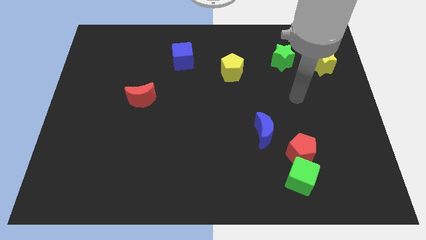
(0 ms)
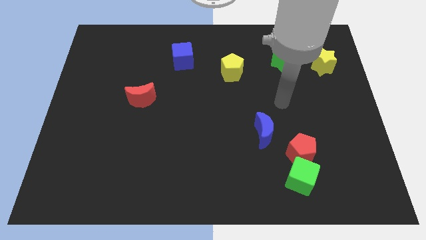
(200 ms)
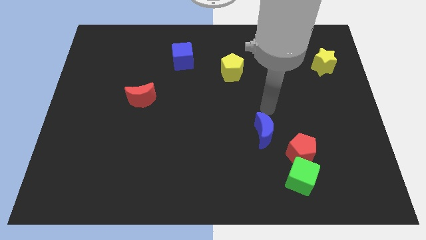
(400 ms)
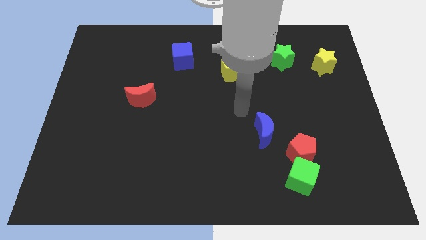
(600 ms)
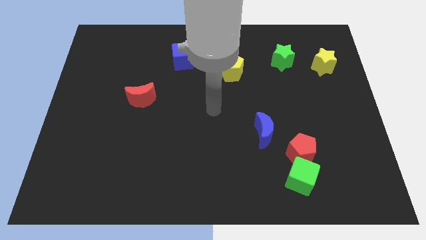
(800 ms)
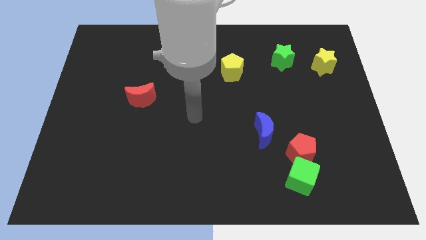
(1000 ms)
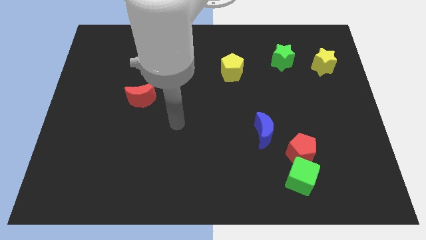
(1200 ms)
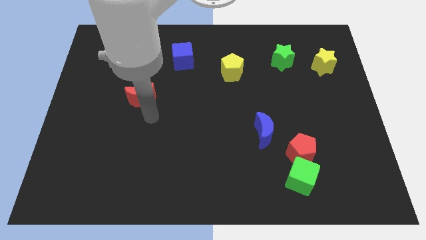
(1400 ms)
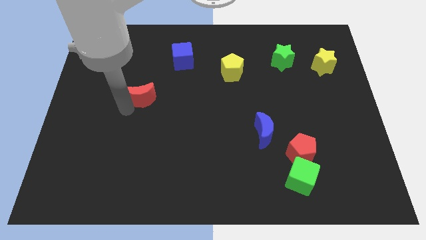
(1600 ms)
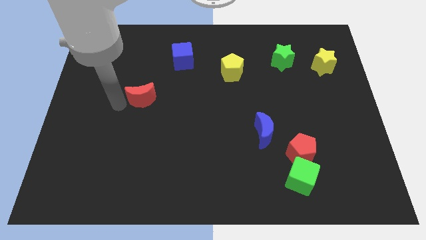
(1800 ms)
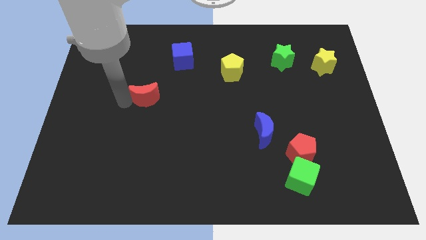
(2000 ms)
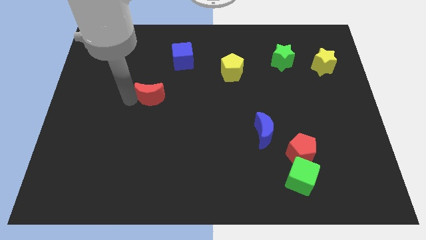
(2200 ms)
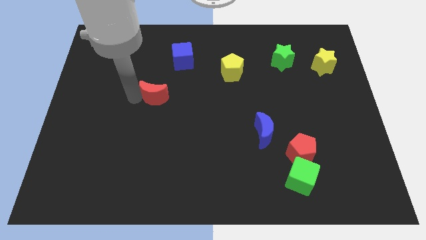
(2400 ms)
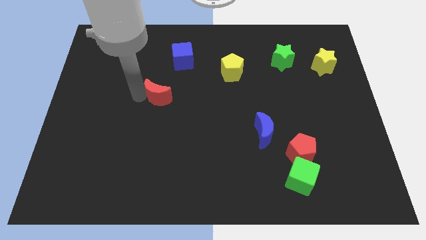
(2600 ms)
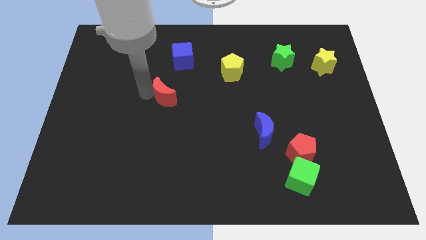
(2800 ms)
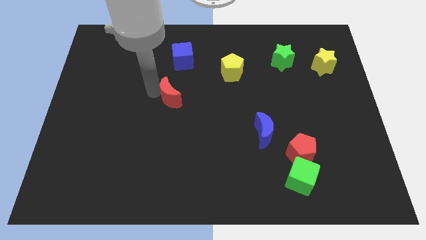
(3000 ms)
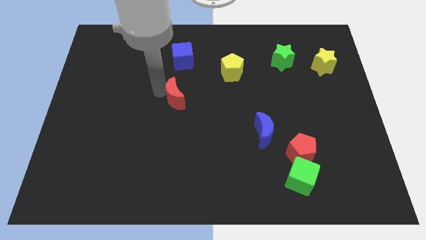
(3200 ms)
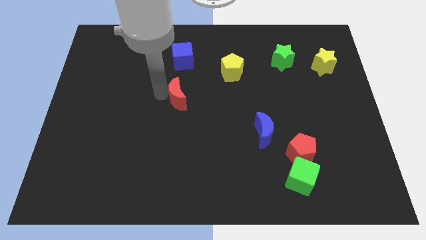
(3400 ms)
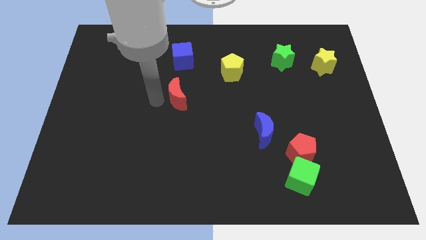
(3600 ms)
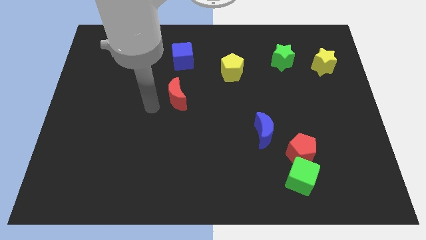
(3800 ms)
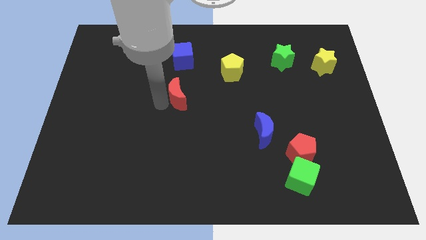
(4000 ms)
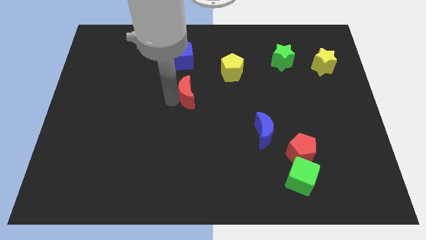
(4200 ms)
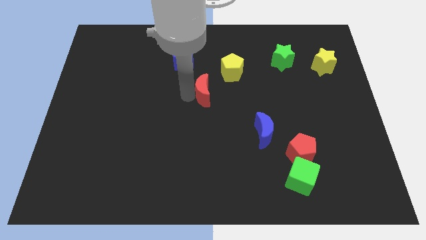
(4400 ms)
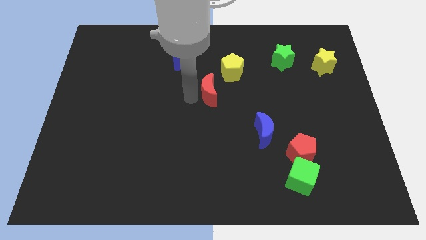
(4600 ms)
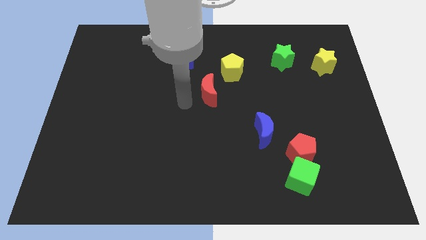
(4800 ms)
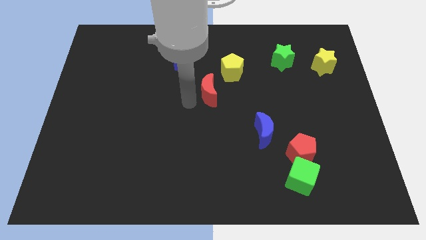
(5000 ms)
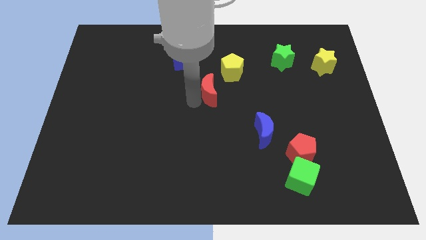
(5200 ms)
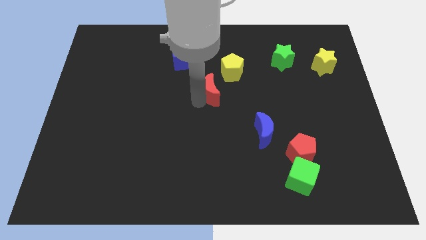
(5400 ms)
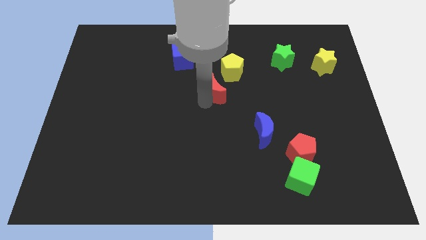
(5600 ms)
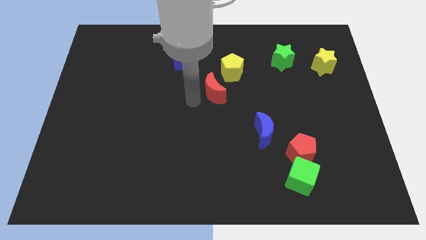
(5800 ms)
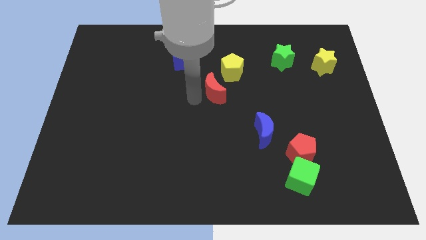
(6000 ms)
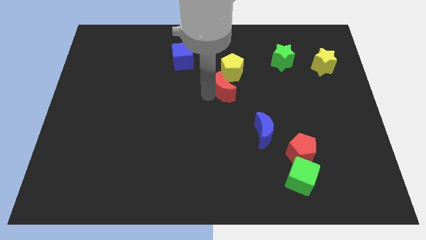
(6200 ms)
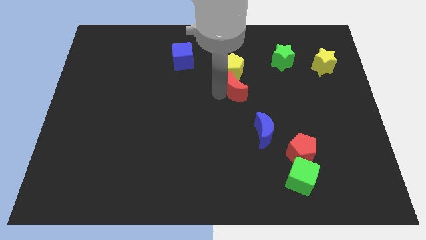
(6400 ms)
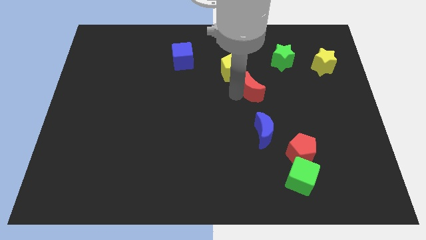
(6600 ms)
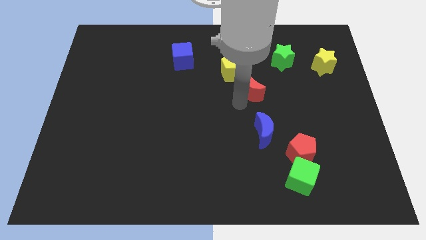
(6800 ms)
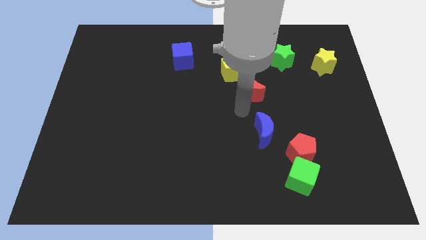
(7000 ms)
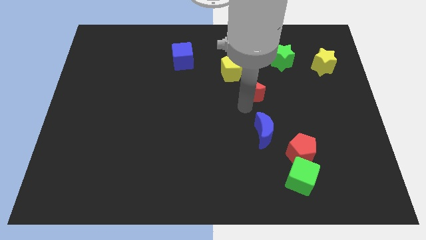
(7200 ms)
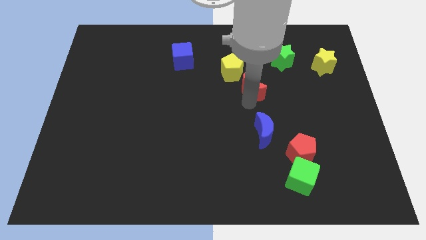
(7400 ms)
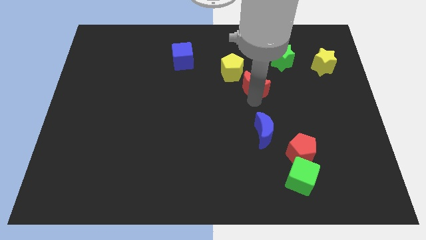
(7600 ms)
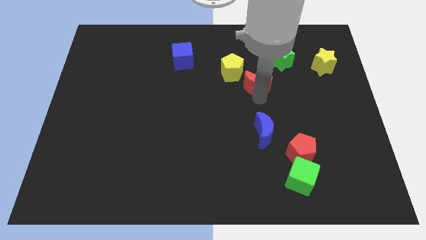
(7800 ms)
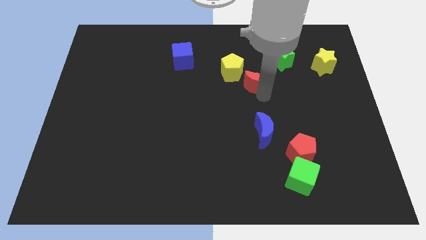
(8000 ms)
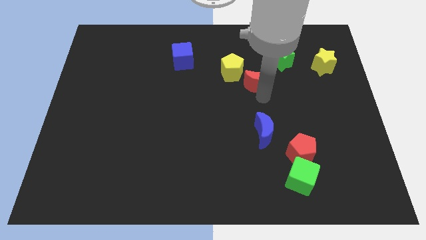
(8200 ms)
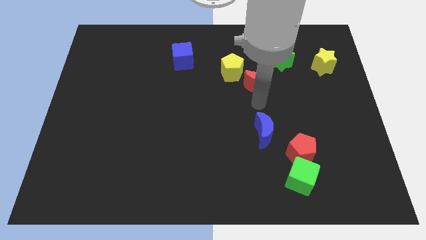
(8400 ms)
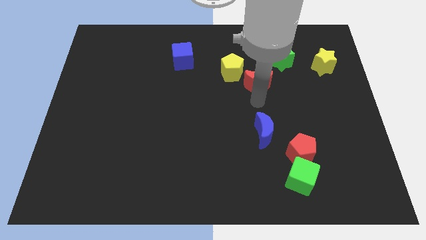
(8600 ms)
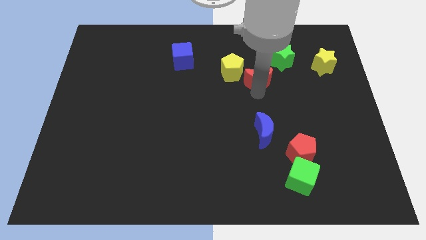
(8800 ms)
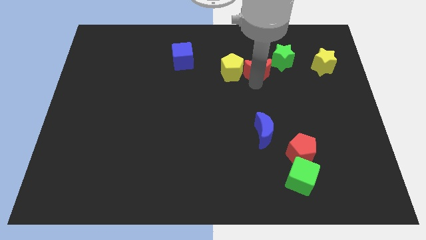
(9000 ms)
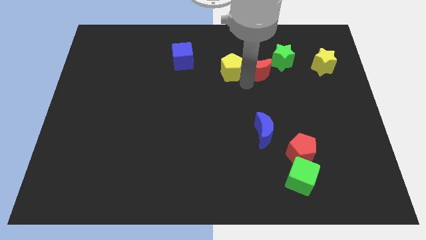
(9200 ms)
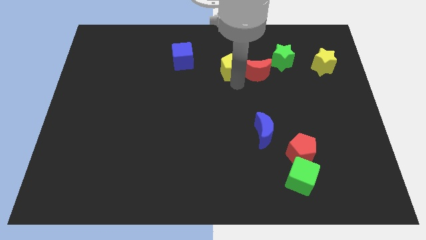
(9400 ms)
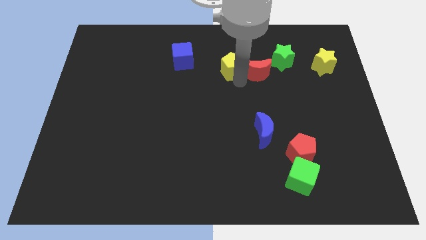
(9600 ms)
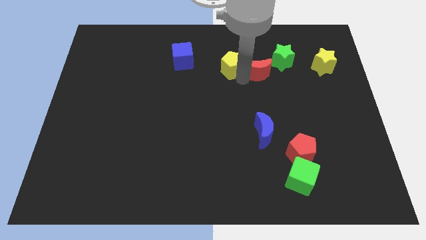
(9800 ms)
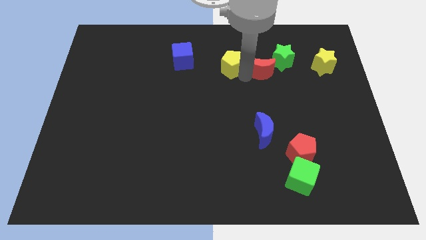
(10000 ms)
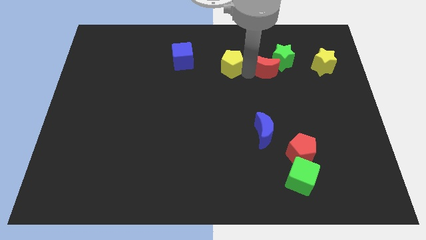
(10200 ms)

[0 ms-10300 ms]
put the red moon next to the green star

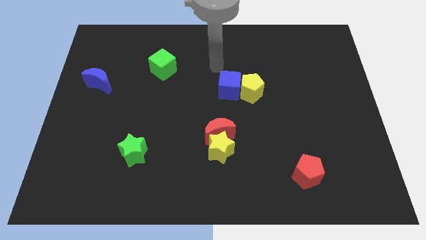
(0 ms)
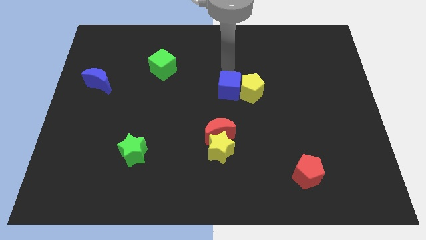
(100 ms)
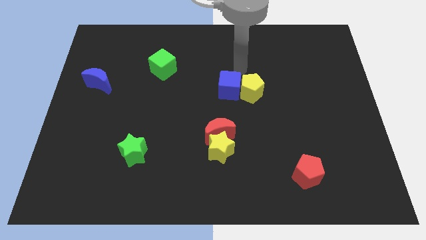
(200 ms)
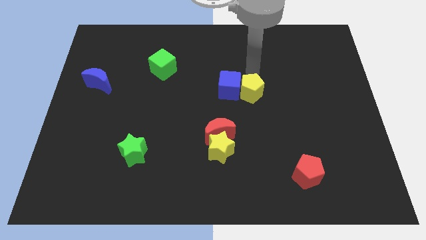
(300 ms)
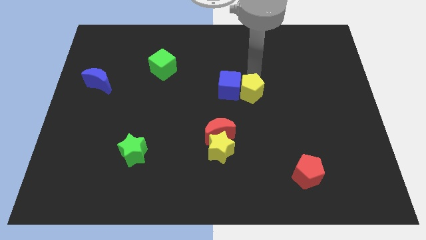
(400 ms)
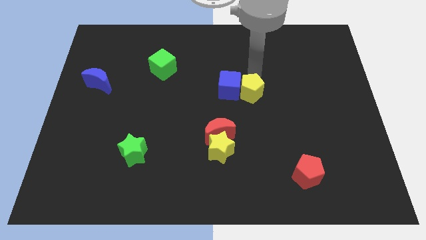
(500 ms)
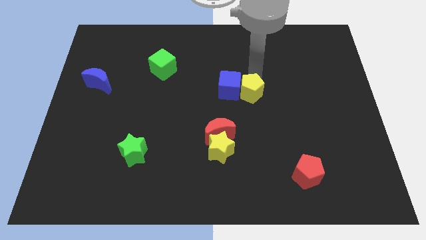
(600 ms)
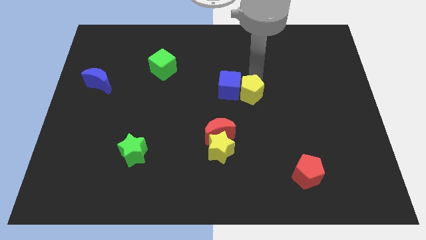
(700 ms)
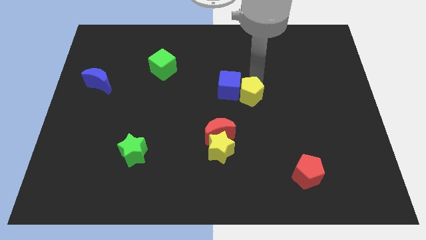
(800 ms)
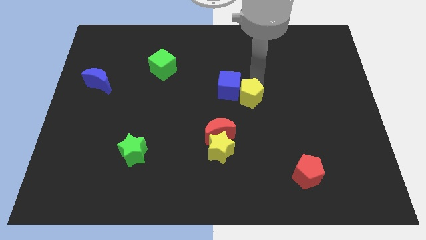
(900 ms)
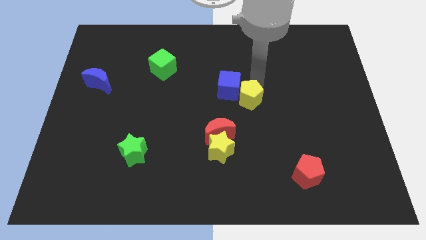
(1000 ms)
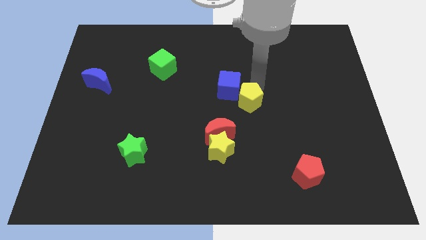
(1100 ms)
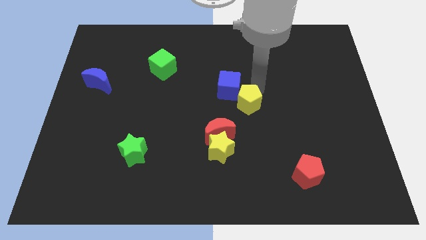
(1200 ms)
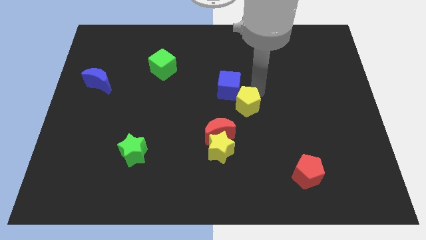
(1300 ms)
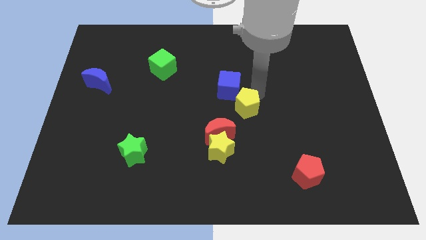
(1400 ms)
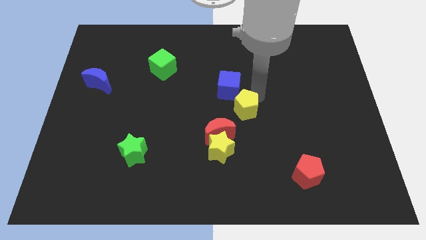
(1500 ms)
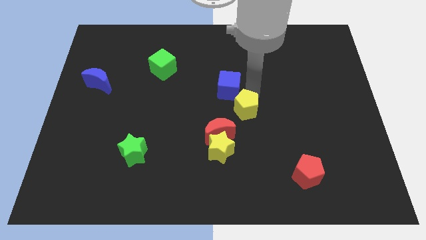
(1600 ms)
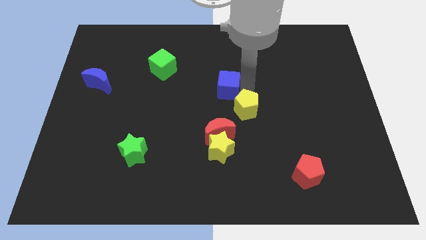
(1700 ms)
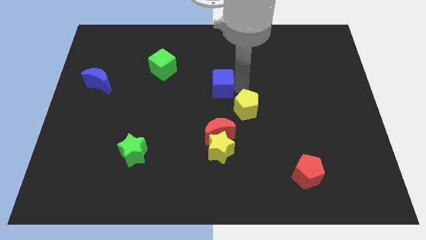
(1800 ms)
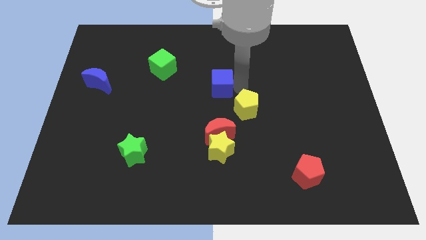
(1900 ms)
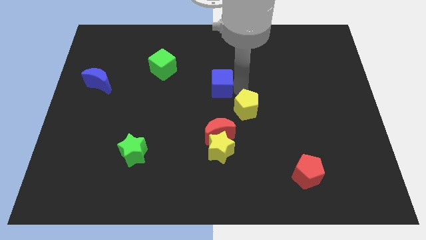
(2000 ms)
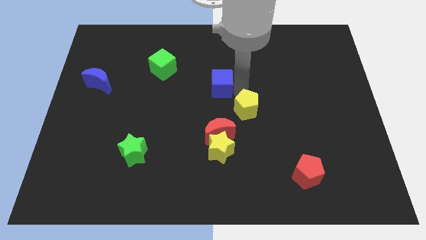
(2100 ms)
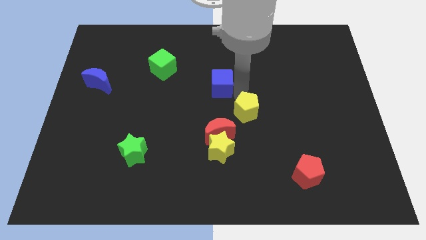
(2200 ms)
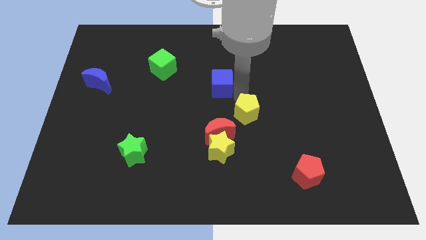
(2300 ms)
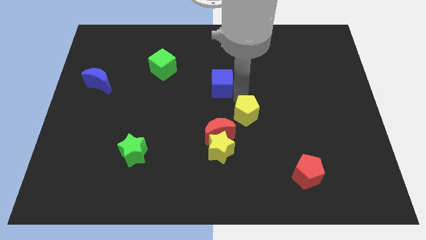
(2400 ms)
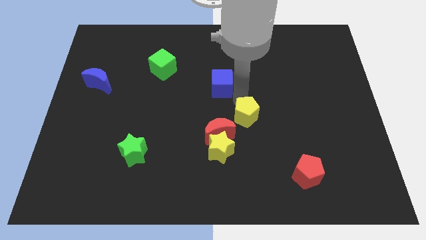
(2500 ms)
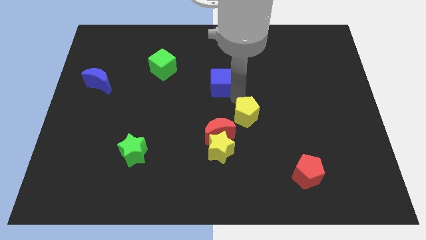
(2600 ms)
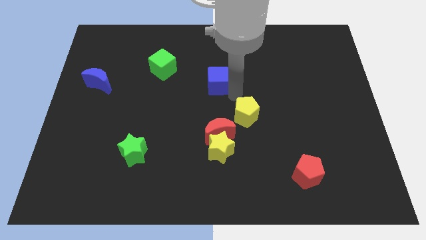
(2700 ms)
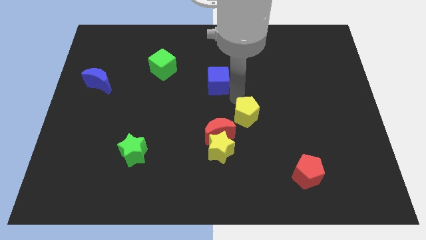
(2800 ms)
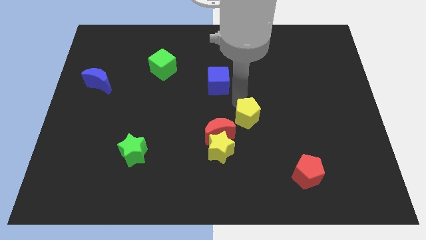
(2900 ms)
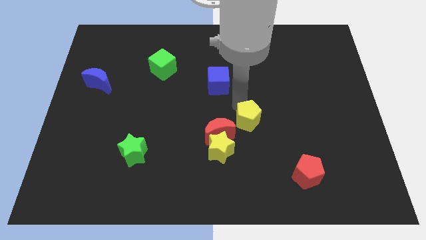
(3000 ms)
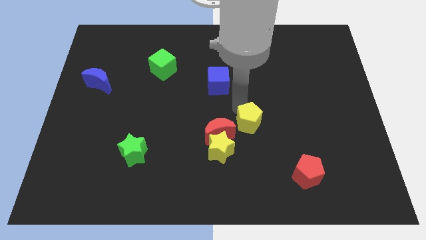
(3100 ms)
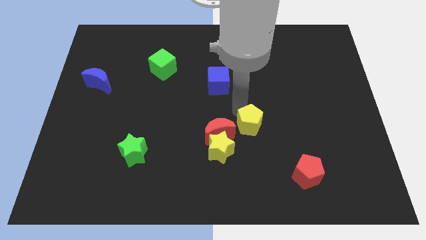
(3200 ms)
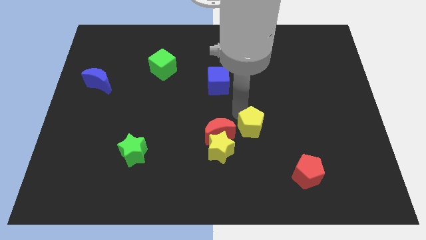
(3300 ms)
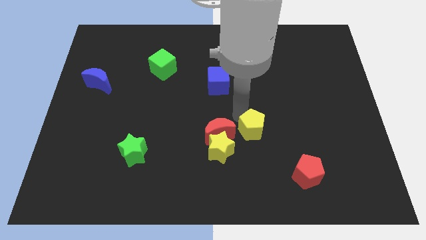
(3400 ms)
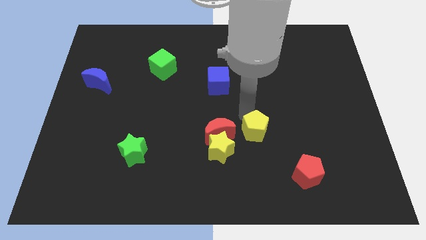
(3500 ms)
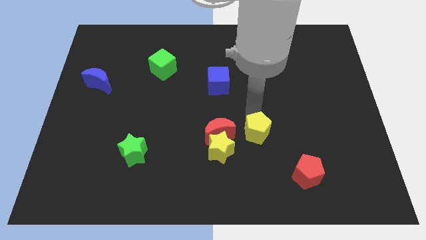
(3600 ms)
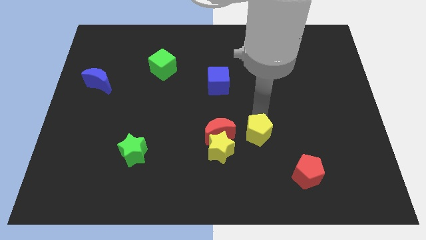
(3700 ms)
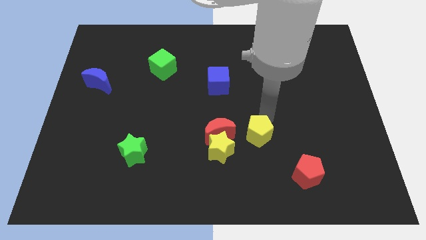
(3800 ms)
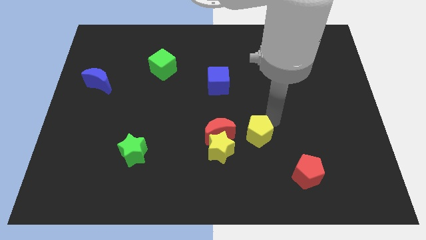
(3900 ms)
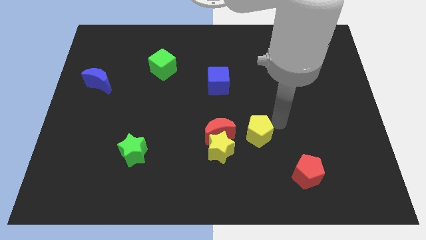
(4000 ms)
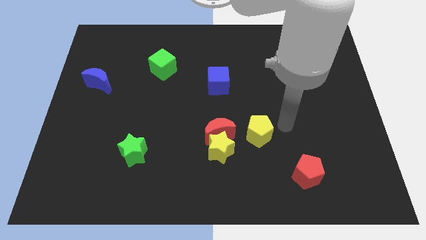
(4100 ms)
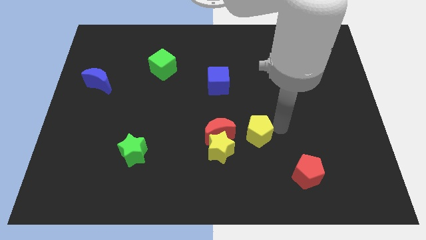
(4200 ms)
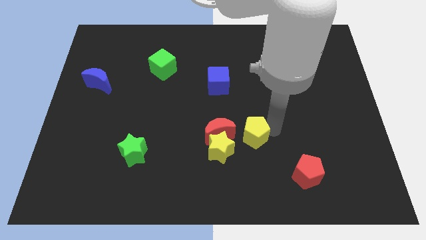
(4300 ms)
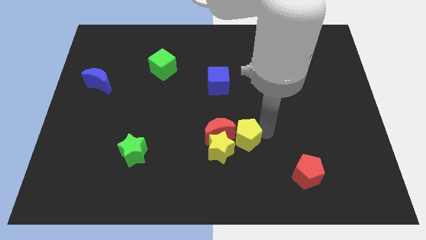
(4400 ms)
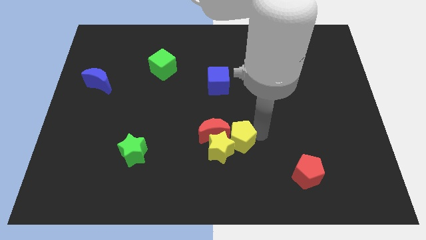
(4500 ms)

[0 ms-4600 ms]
push the yellow pentagon to the yellow star
